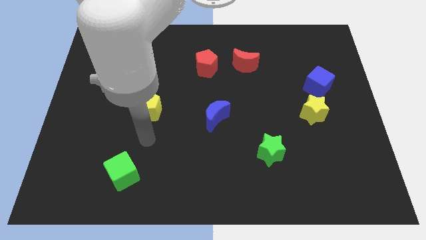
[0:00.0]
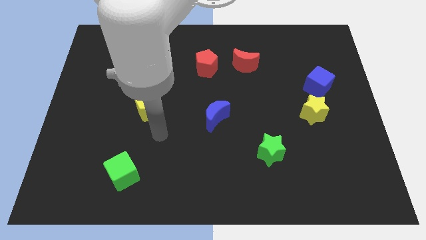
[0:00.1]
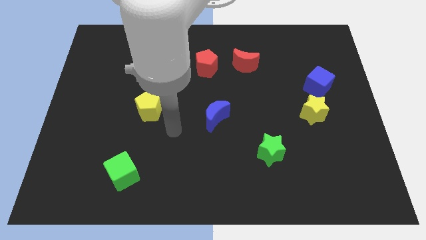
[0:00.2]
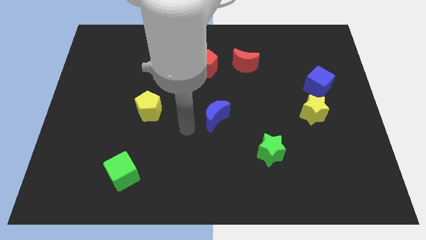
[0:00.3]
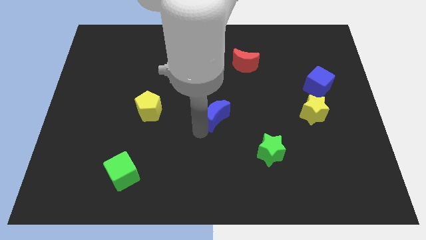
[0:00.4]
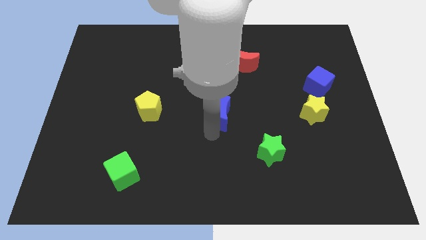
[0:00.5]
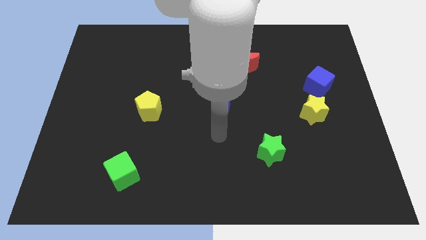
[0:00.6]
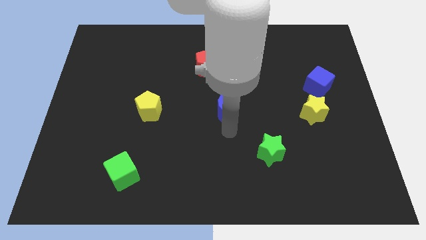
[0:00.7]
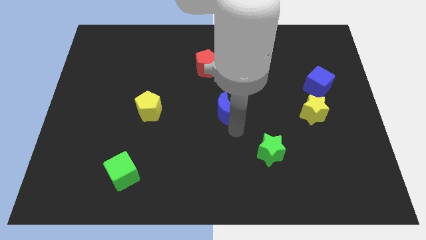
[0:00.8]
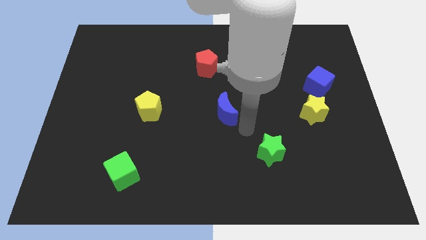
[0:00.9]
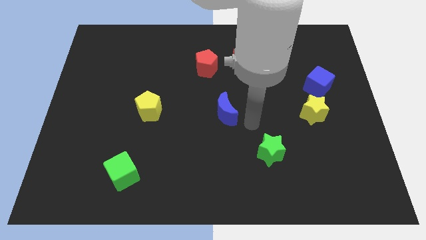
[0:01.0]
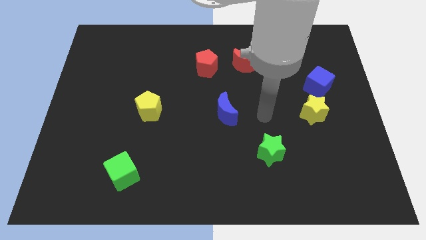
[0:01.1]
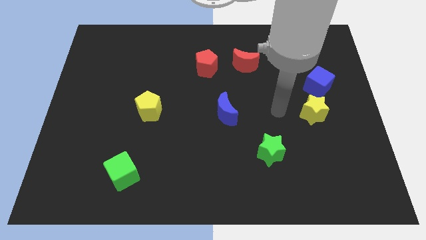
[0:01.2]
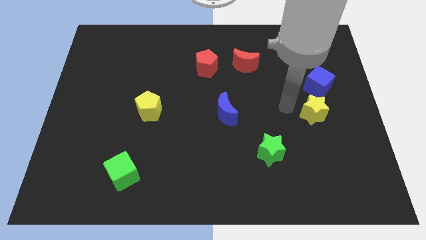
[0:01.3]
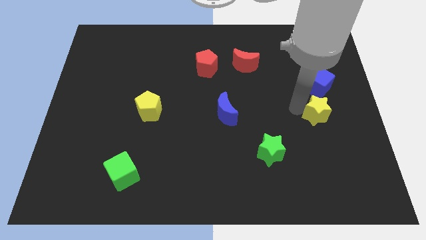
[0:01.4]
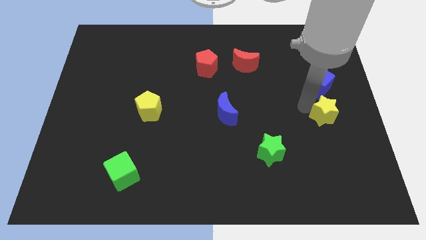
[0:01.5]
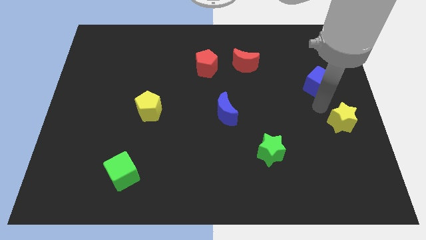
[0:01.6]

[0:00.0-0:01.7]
move the blue cube away from the yellow star

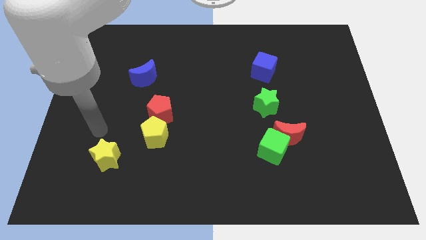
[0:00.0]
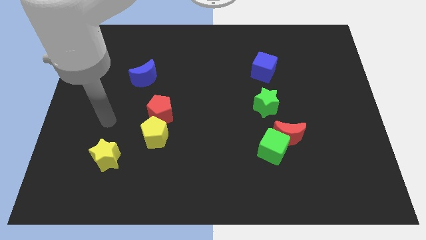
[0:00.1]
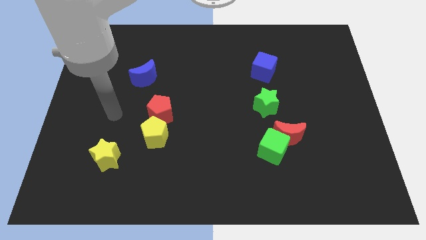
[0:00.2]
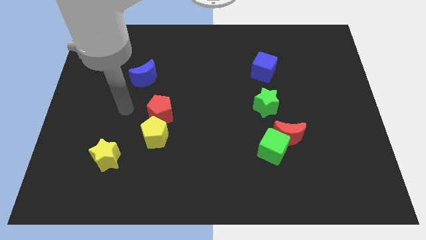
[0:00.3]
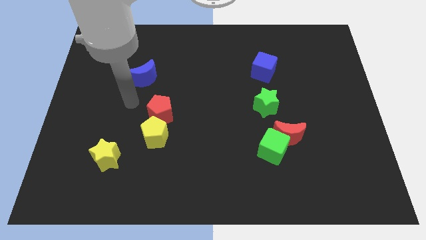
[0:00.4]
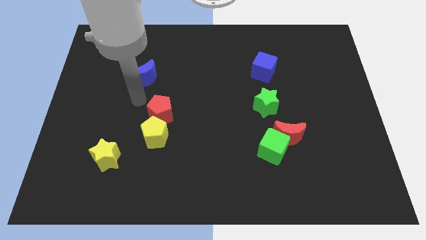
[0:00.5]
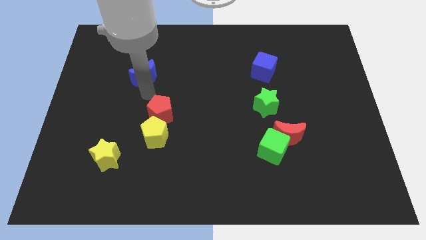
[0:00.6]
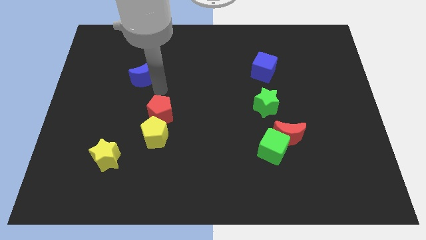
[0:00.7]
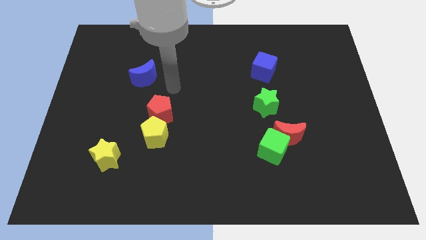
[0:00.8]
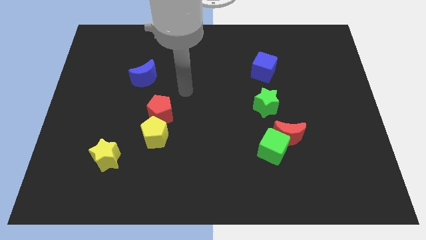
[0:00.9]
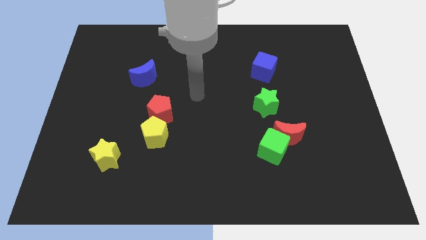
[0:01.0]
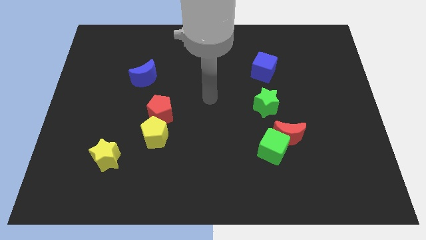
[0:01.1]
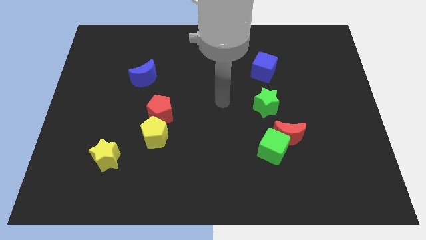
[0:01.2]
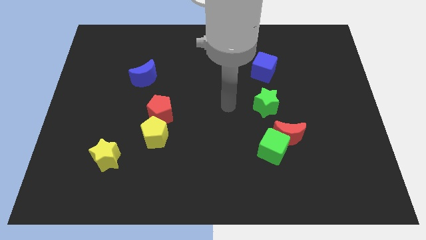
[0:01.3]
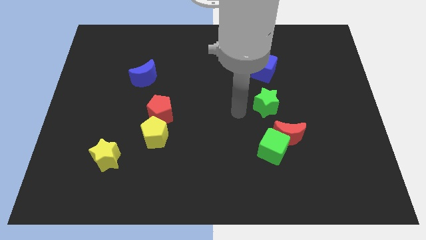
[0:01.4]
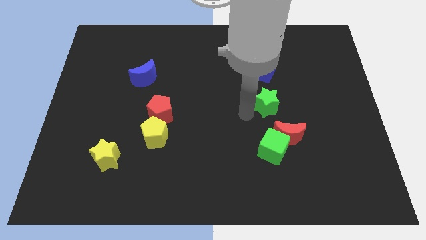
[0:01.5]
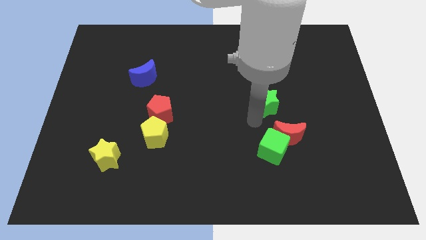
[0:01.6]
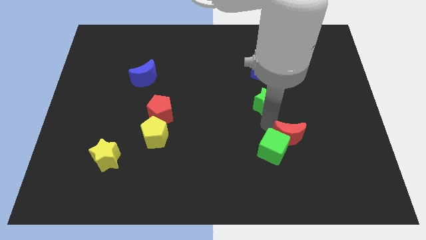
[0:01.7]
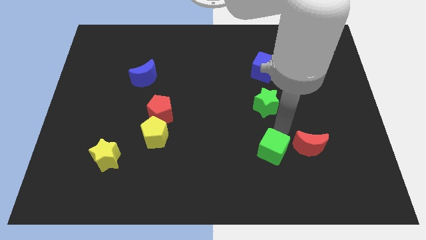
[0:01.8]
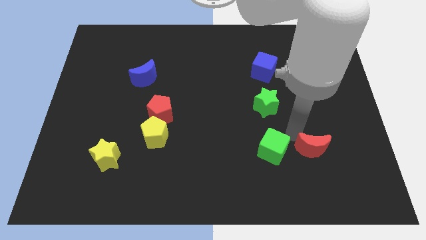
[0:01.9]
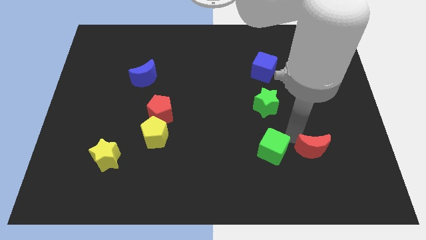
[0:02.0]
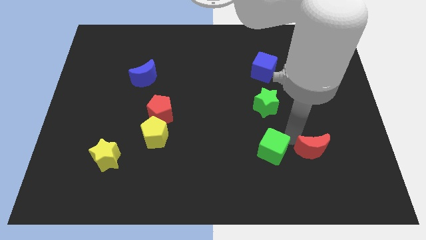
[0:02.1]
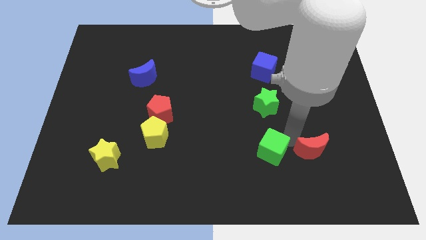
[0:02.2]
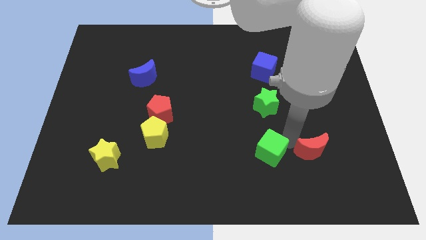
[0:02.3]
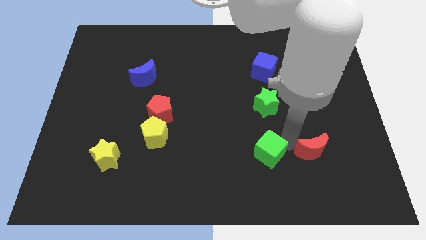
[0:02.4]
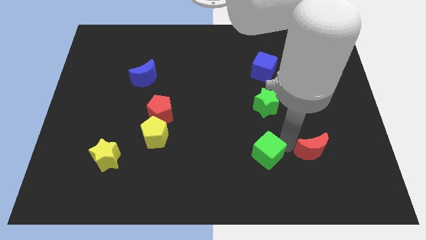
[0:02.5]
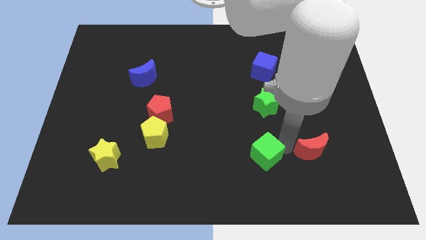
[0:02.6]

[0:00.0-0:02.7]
pull the green cube apart from the red moon

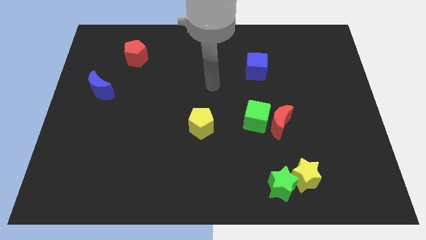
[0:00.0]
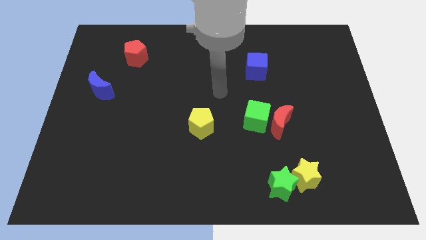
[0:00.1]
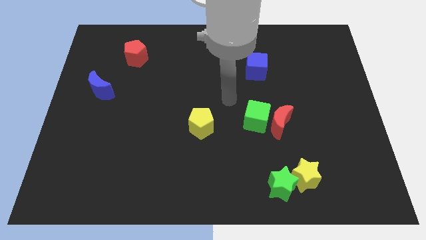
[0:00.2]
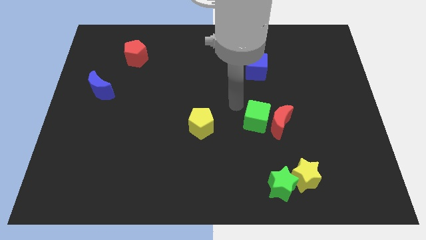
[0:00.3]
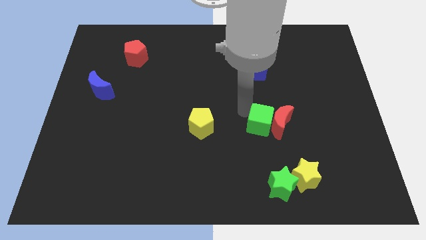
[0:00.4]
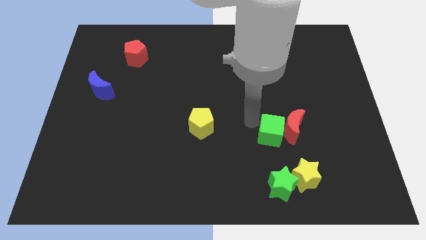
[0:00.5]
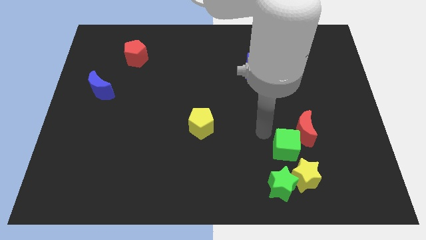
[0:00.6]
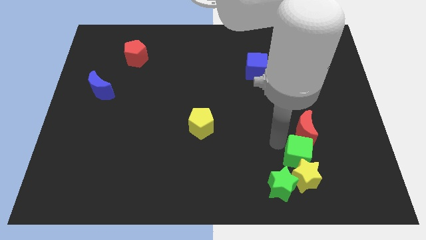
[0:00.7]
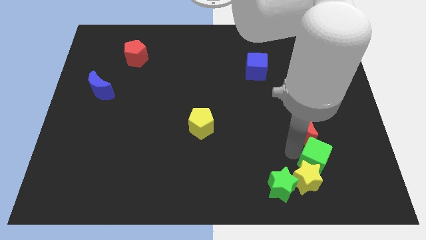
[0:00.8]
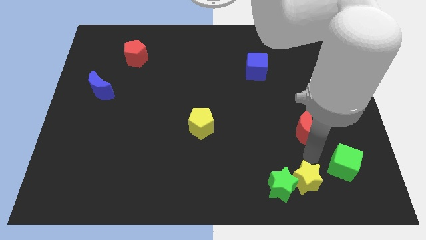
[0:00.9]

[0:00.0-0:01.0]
move the red moon away from the green cube

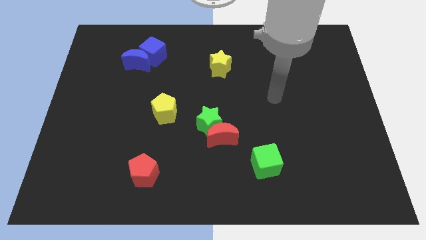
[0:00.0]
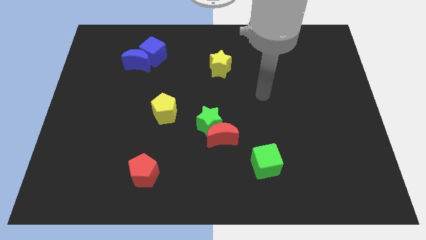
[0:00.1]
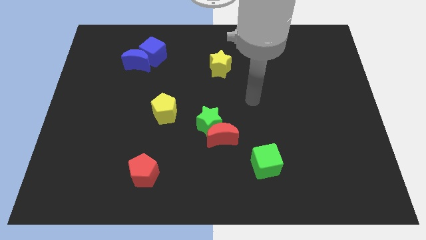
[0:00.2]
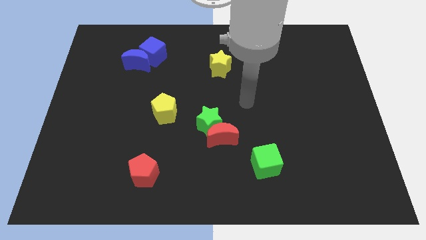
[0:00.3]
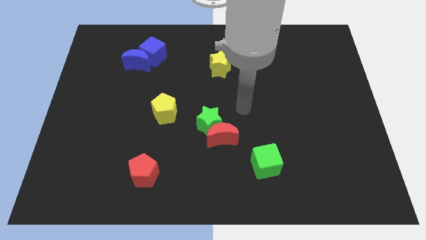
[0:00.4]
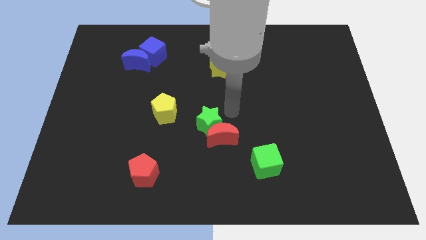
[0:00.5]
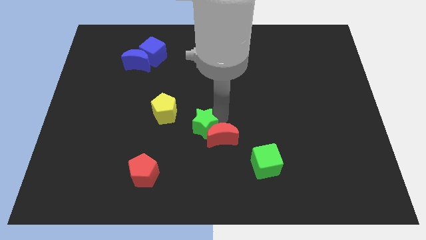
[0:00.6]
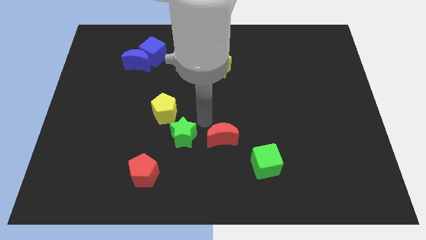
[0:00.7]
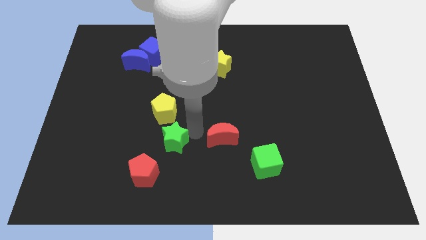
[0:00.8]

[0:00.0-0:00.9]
move the red moon away from the green star

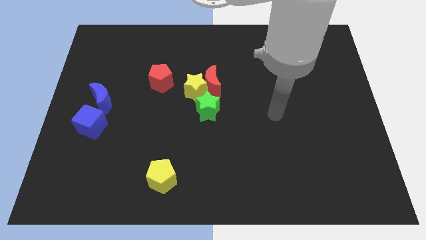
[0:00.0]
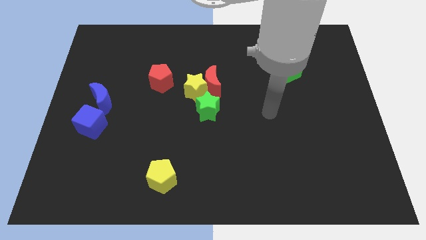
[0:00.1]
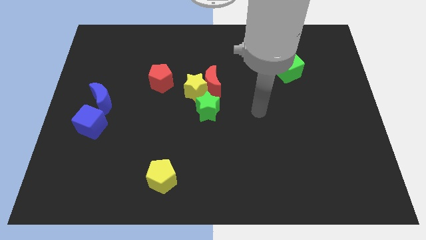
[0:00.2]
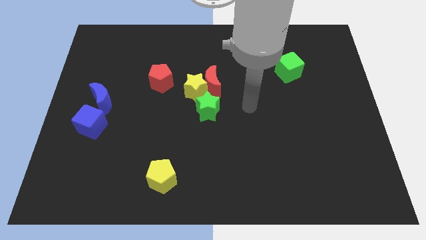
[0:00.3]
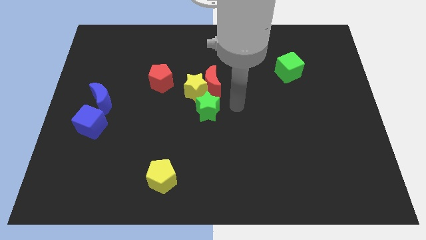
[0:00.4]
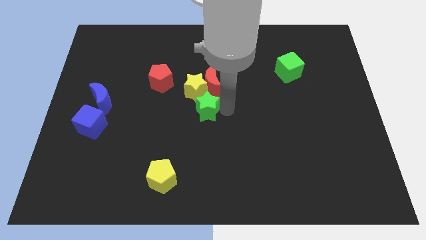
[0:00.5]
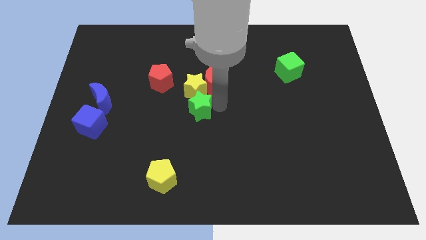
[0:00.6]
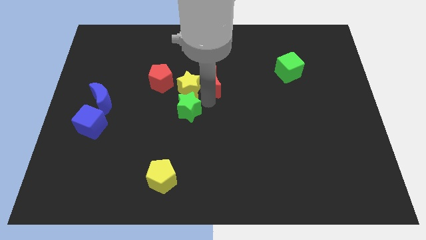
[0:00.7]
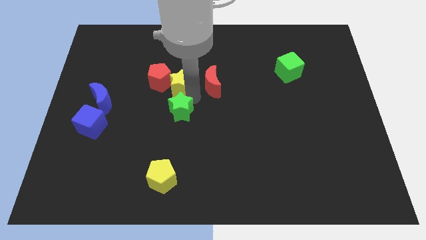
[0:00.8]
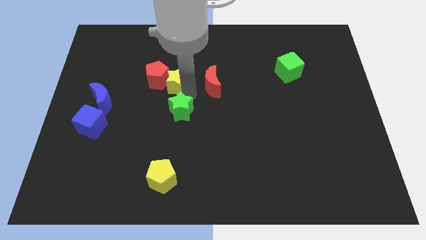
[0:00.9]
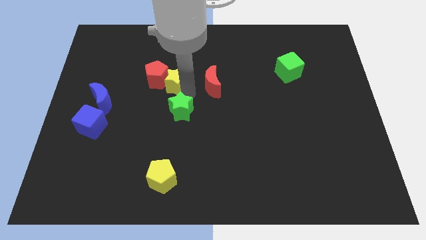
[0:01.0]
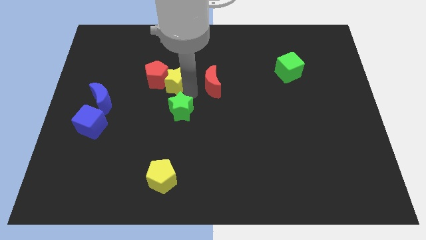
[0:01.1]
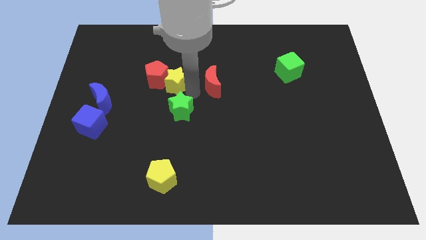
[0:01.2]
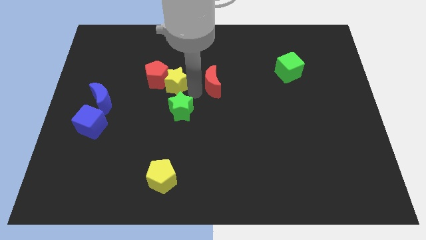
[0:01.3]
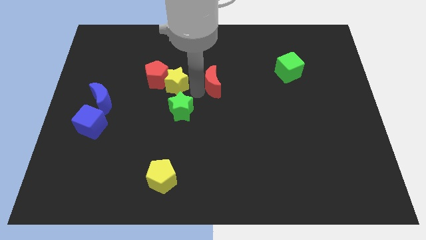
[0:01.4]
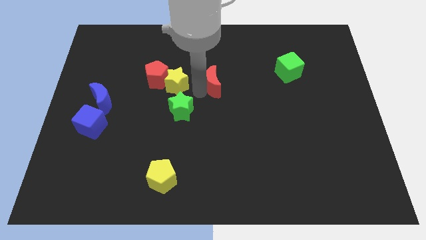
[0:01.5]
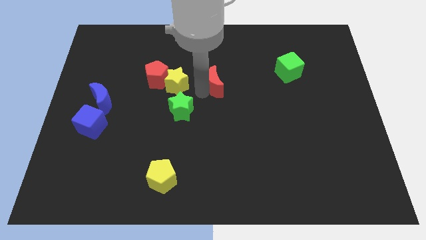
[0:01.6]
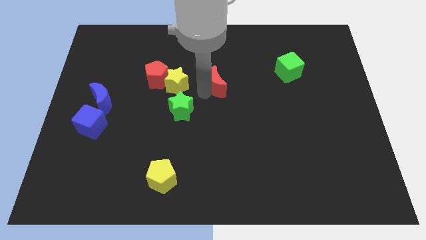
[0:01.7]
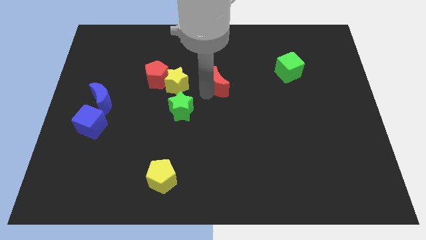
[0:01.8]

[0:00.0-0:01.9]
separate the red moon from the yellow star and green star

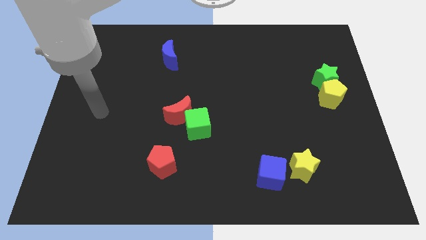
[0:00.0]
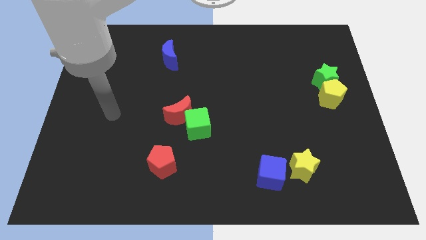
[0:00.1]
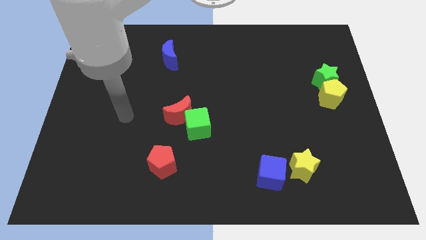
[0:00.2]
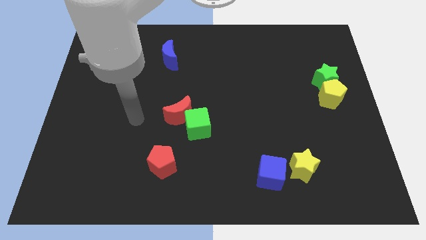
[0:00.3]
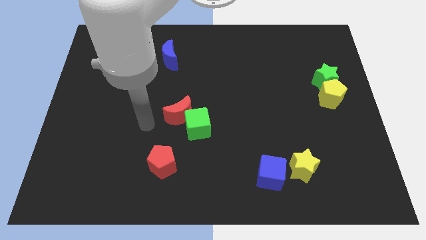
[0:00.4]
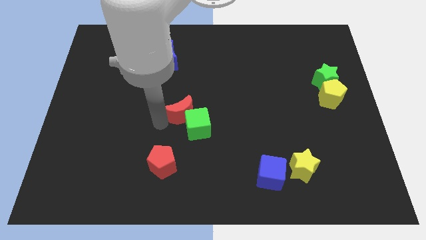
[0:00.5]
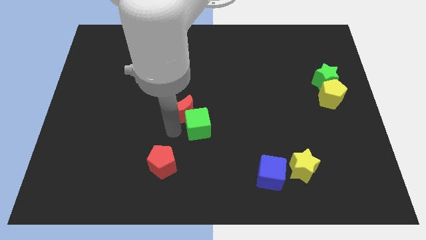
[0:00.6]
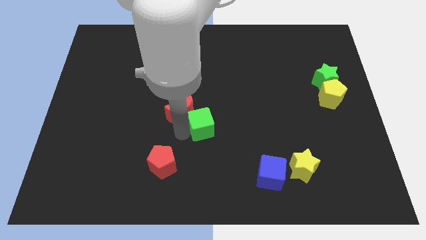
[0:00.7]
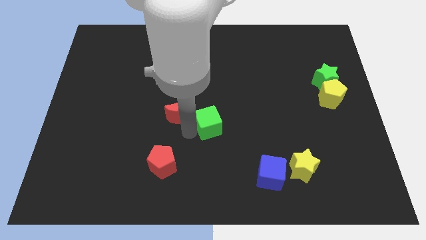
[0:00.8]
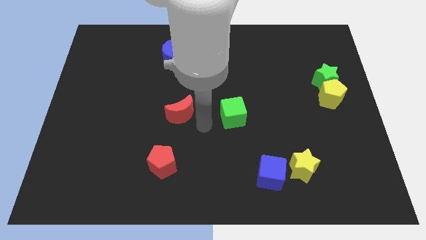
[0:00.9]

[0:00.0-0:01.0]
separate the red moon from the green cube
